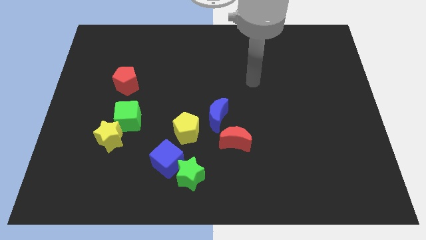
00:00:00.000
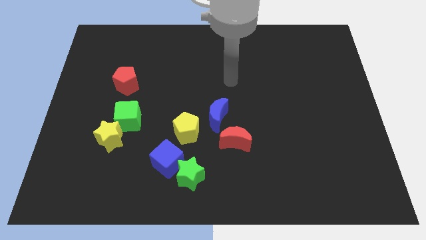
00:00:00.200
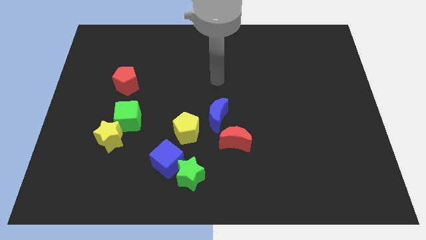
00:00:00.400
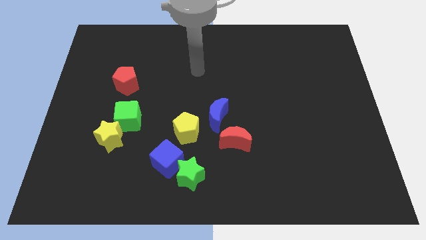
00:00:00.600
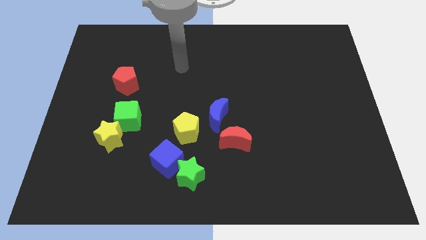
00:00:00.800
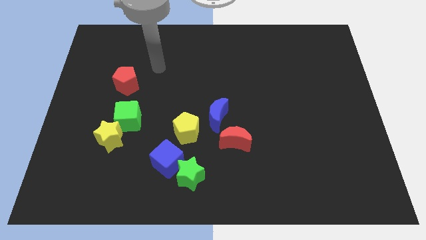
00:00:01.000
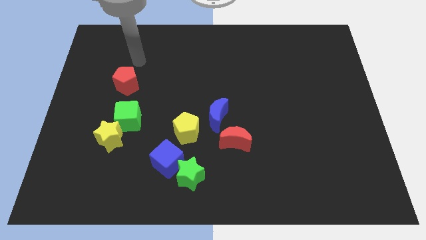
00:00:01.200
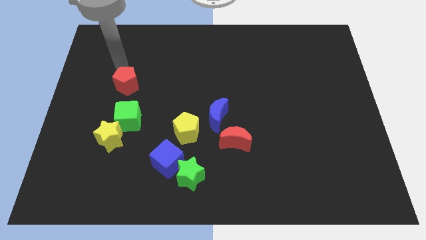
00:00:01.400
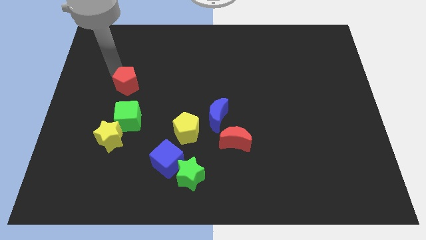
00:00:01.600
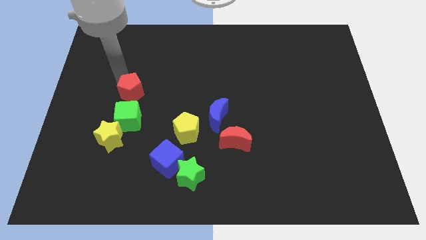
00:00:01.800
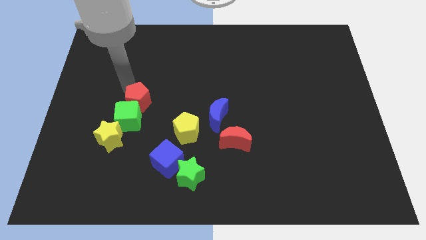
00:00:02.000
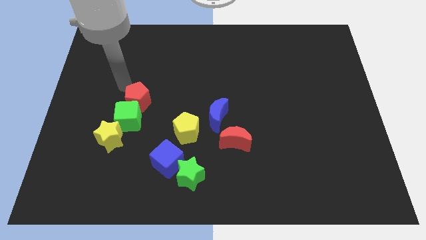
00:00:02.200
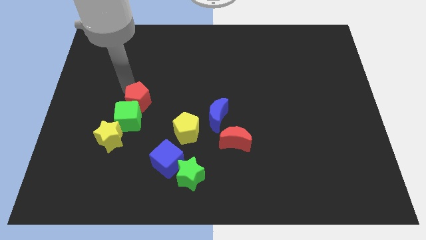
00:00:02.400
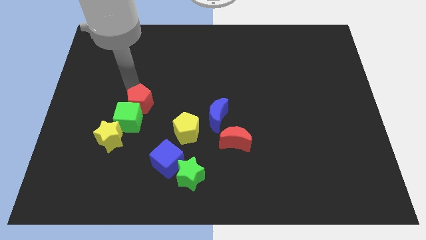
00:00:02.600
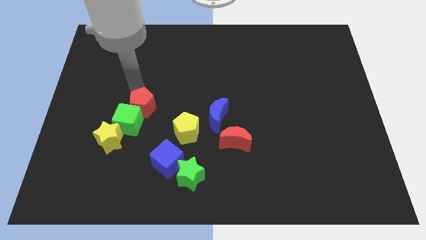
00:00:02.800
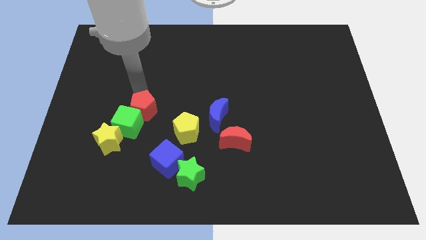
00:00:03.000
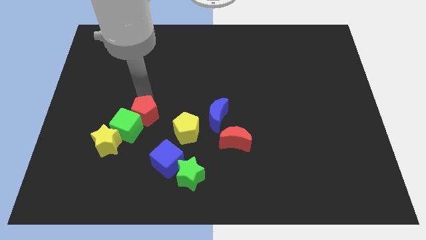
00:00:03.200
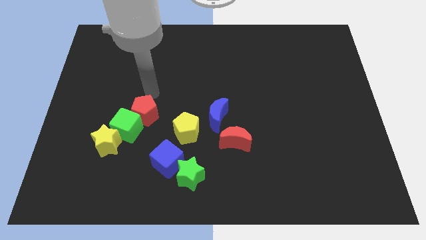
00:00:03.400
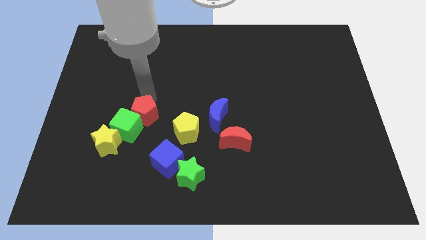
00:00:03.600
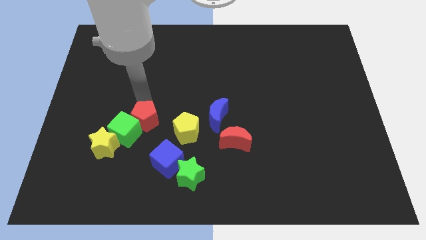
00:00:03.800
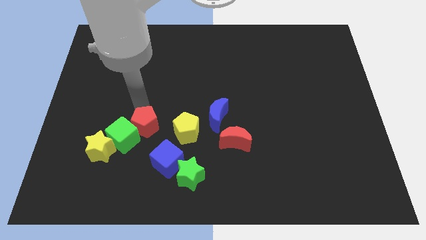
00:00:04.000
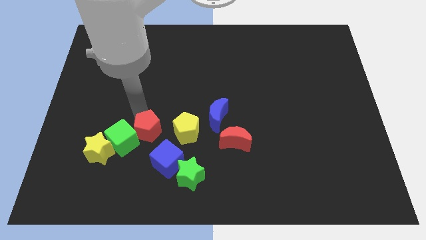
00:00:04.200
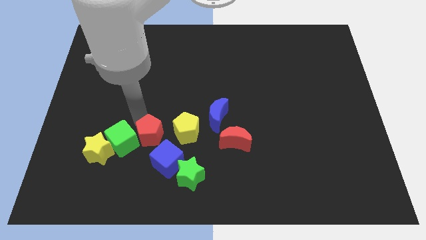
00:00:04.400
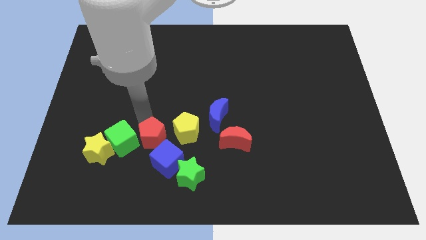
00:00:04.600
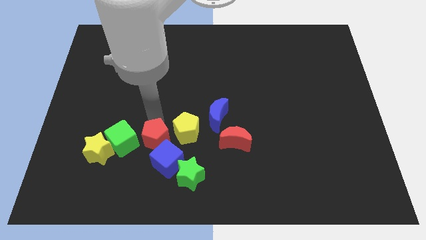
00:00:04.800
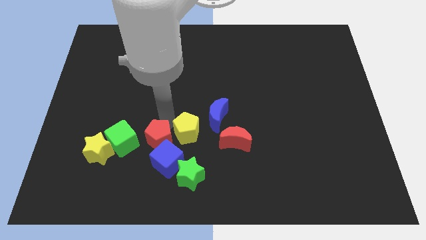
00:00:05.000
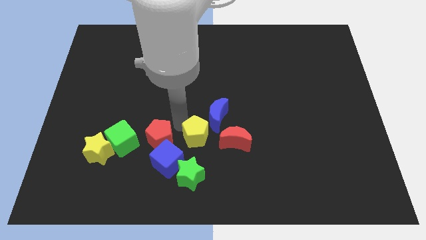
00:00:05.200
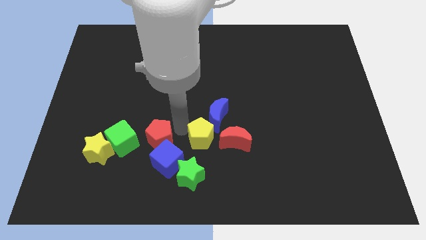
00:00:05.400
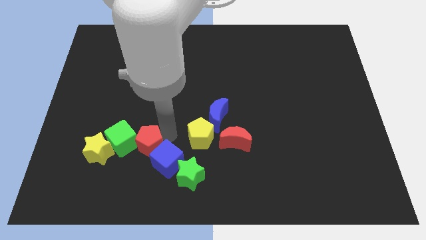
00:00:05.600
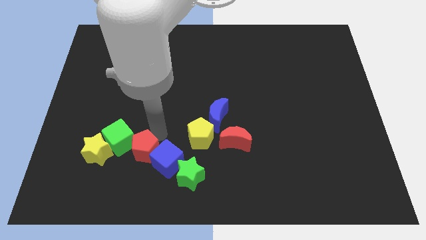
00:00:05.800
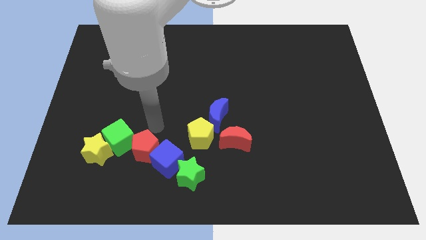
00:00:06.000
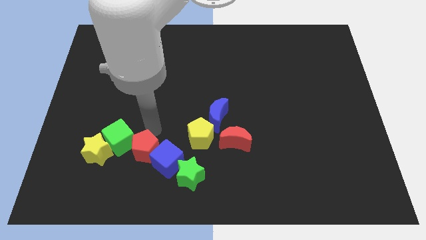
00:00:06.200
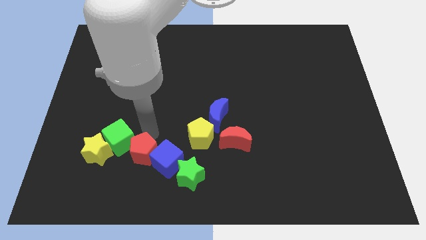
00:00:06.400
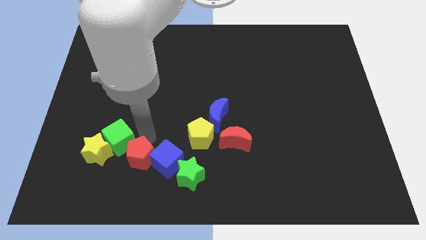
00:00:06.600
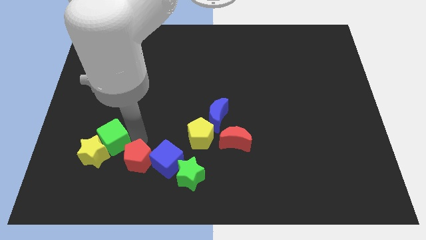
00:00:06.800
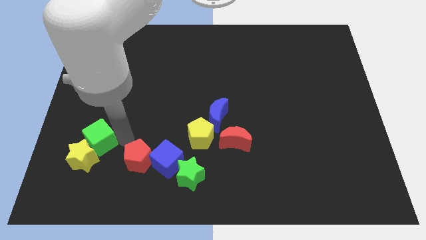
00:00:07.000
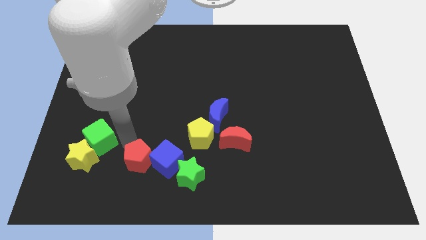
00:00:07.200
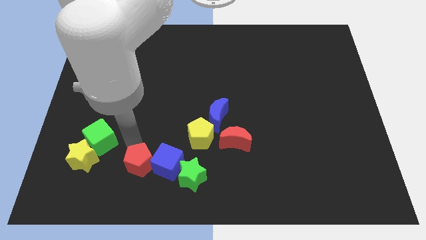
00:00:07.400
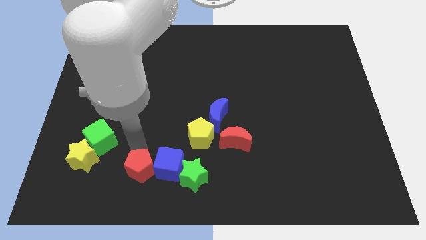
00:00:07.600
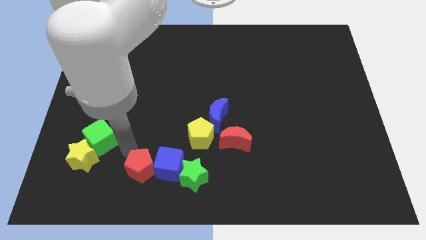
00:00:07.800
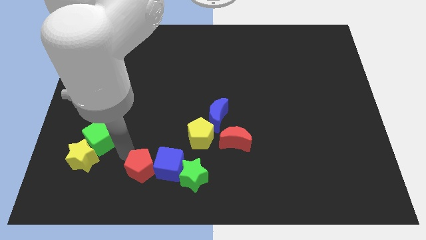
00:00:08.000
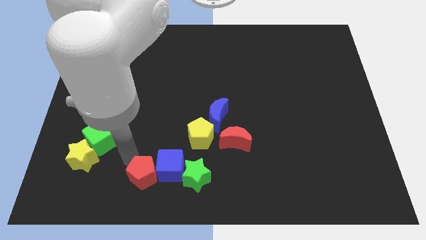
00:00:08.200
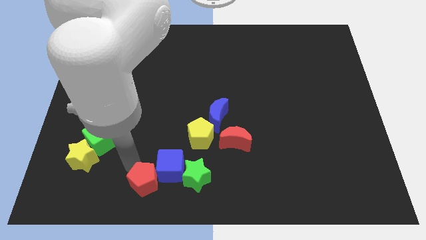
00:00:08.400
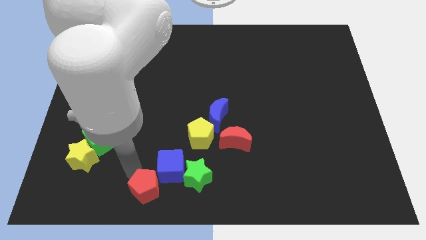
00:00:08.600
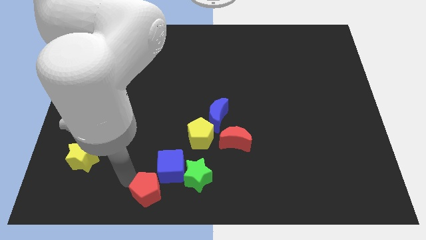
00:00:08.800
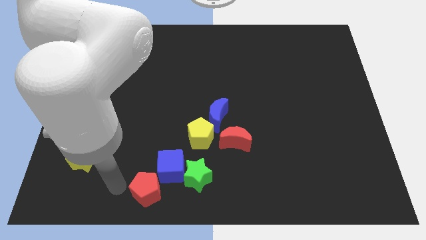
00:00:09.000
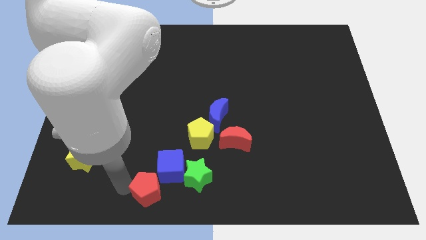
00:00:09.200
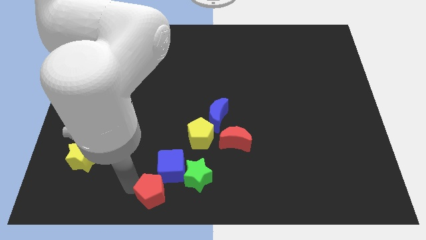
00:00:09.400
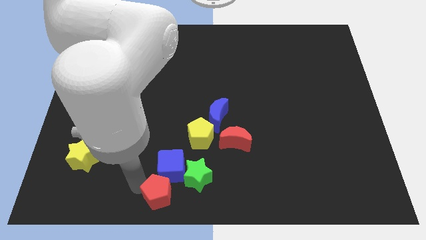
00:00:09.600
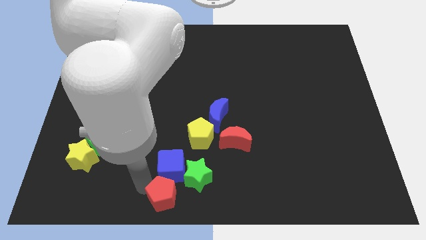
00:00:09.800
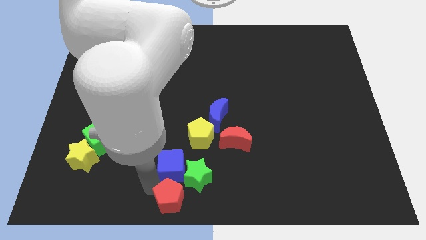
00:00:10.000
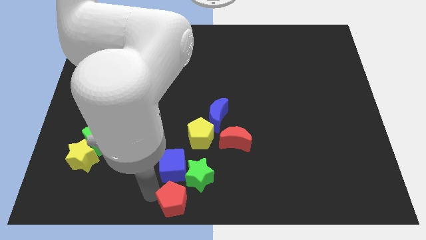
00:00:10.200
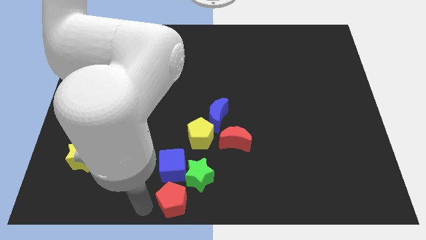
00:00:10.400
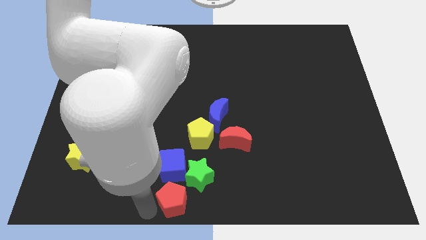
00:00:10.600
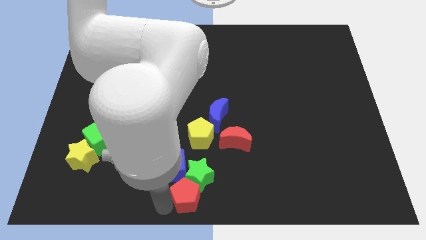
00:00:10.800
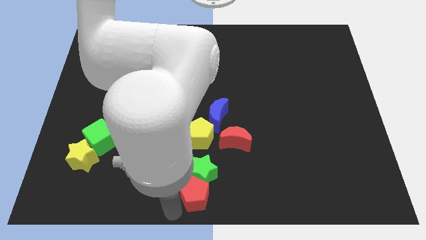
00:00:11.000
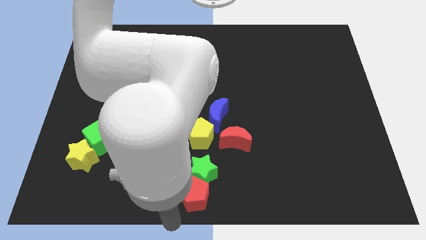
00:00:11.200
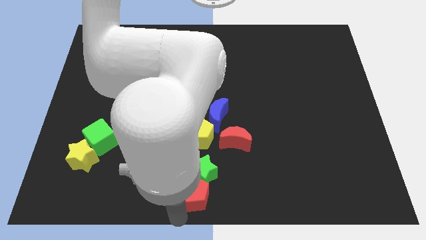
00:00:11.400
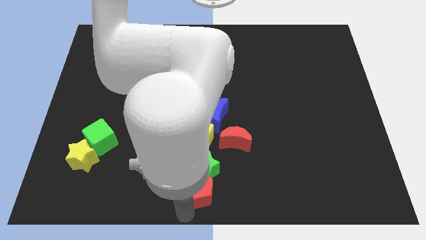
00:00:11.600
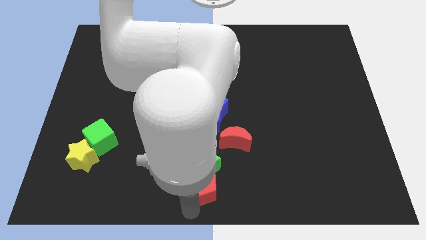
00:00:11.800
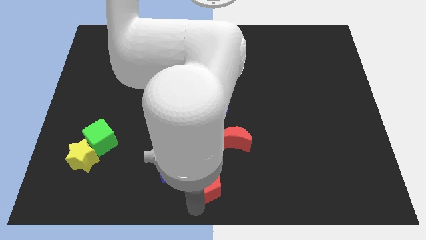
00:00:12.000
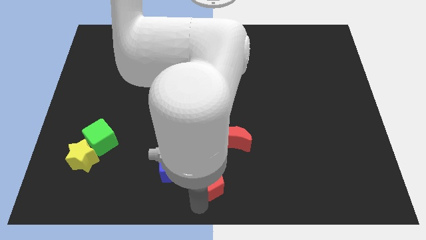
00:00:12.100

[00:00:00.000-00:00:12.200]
put the red pentagon diagonally down and to the left of the red moon
